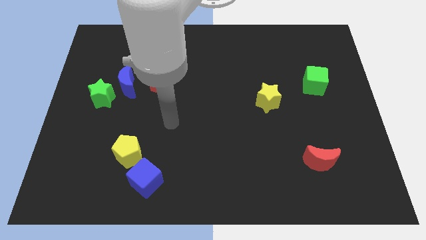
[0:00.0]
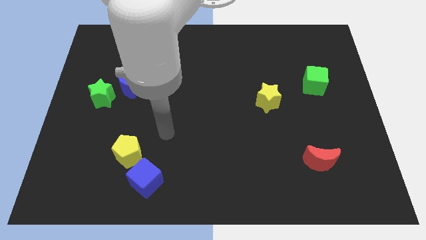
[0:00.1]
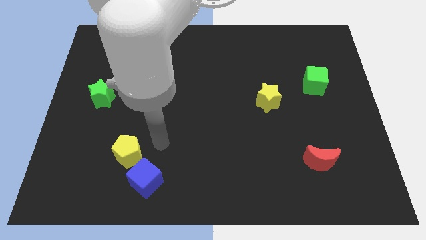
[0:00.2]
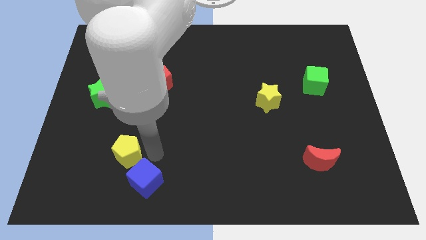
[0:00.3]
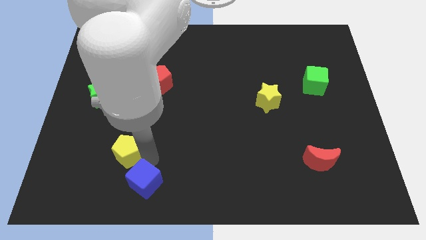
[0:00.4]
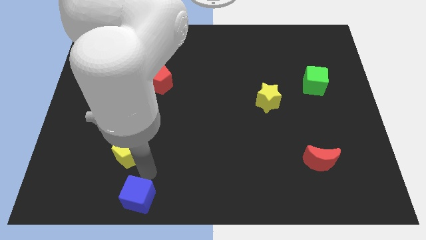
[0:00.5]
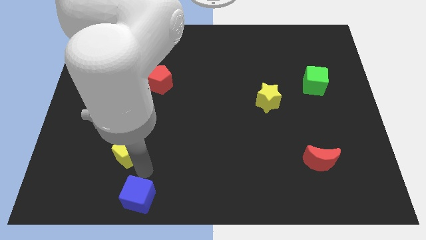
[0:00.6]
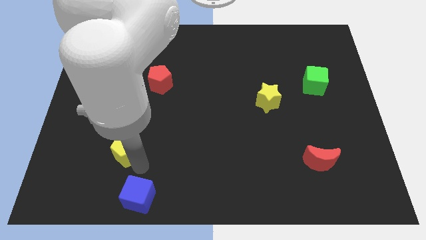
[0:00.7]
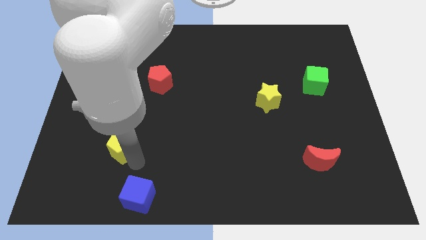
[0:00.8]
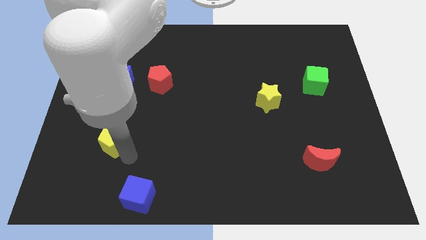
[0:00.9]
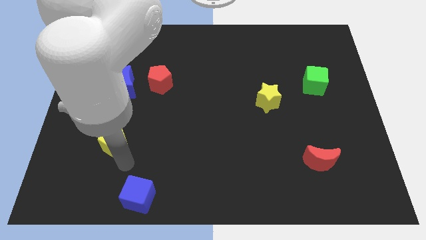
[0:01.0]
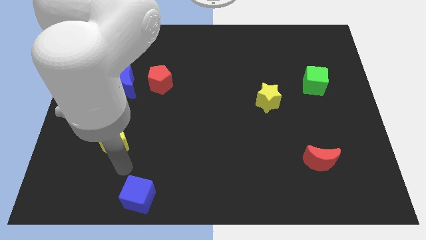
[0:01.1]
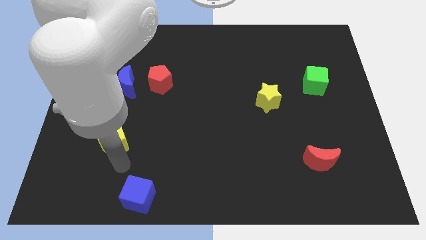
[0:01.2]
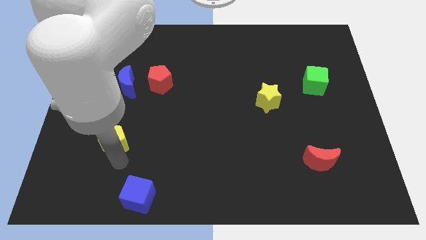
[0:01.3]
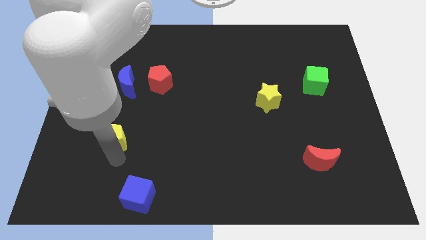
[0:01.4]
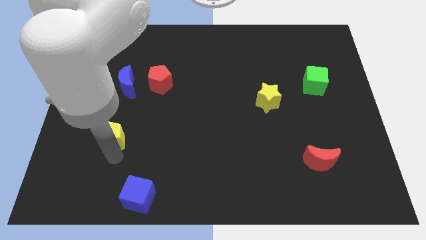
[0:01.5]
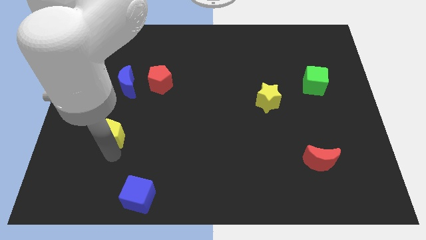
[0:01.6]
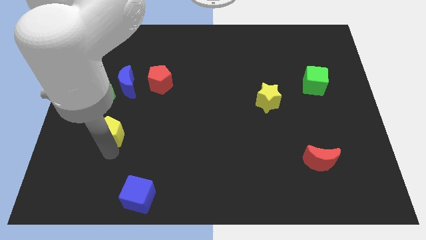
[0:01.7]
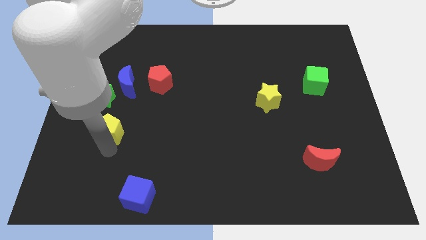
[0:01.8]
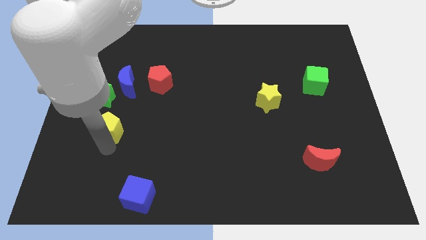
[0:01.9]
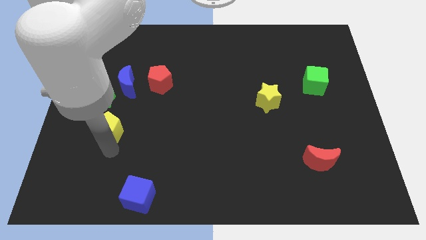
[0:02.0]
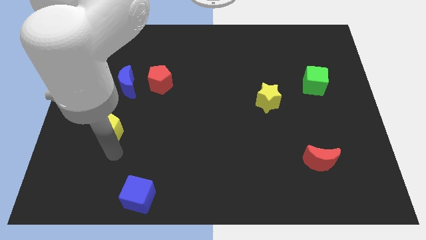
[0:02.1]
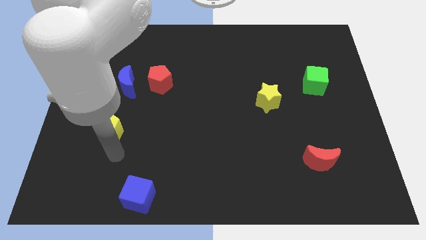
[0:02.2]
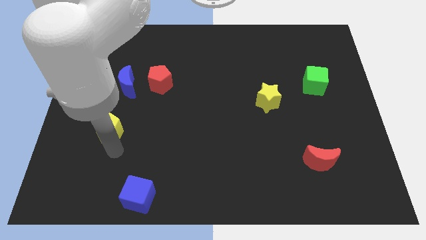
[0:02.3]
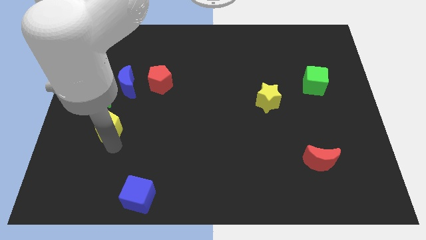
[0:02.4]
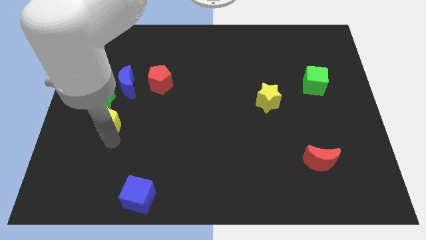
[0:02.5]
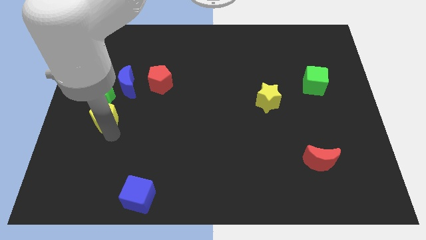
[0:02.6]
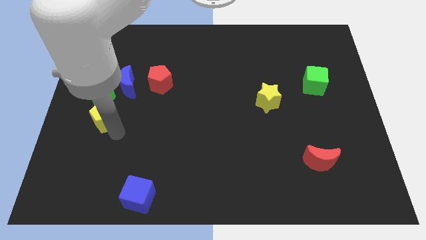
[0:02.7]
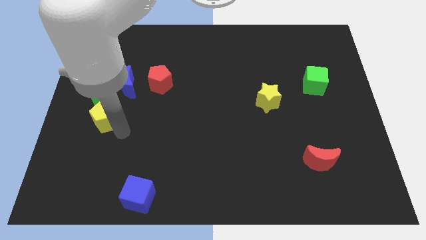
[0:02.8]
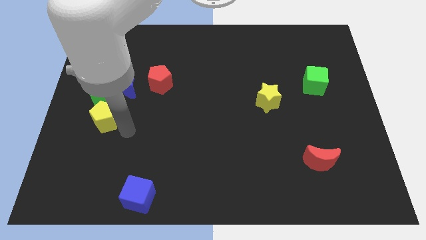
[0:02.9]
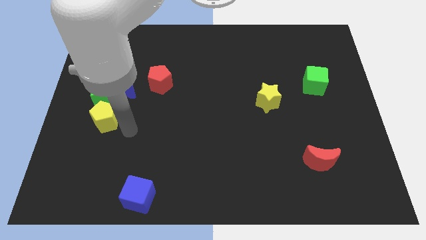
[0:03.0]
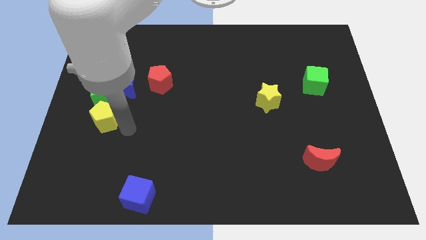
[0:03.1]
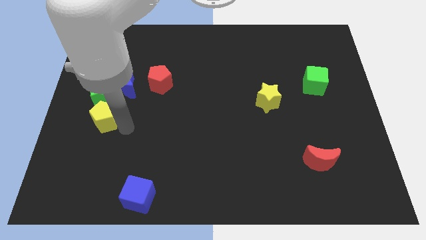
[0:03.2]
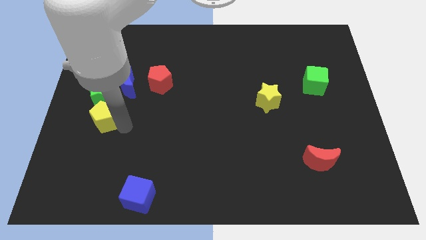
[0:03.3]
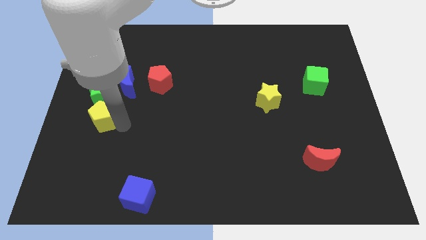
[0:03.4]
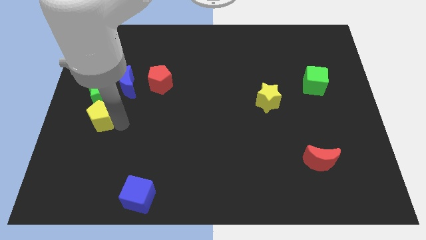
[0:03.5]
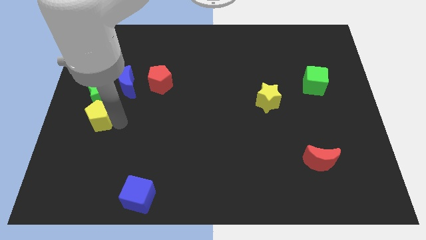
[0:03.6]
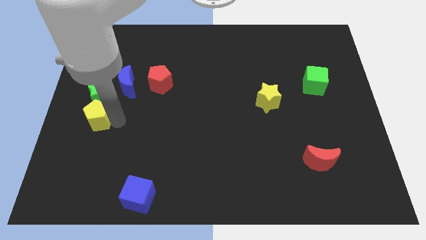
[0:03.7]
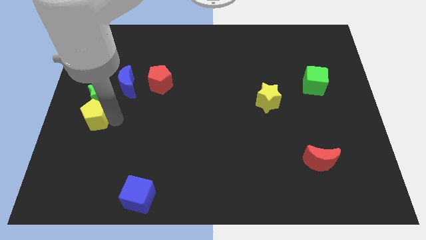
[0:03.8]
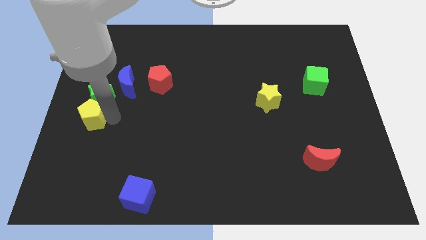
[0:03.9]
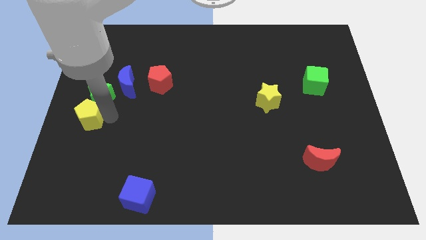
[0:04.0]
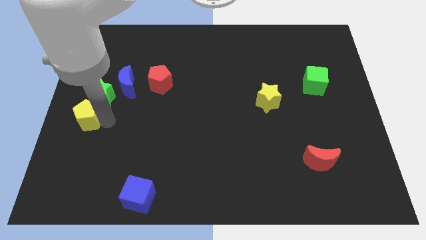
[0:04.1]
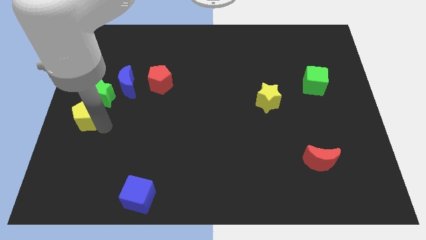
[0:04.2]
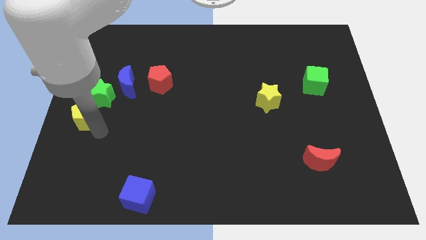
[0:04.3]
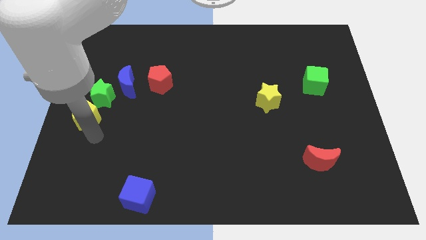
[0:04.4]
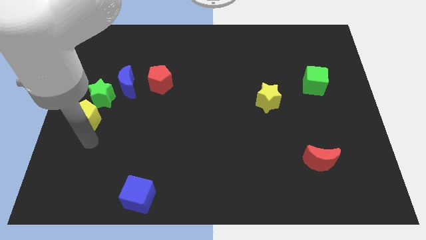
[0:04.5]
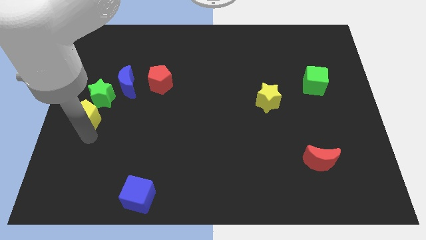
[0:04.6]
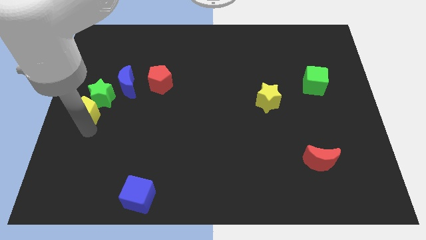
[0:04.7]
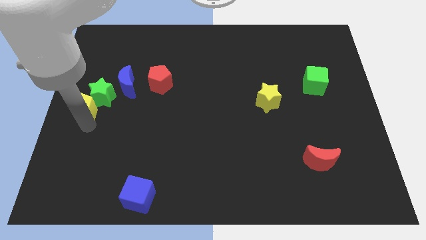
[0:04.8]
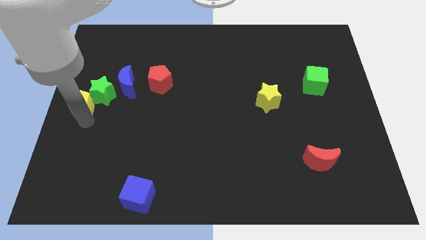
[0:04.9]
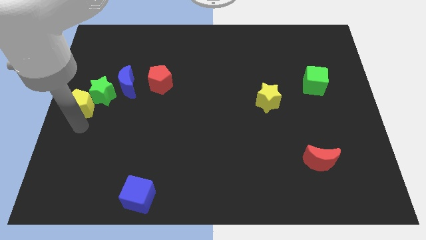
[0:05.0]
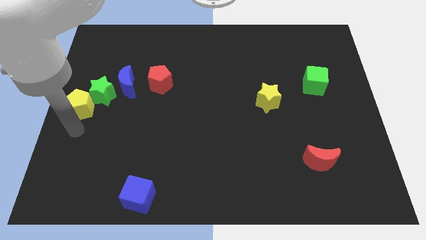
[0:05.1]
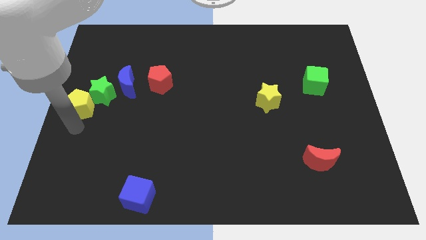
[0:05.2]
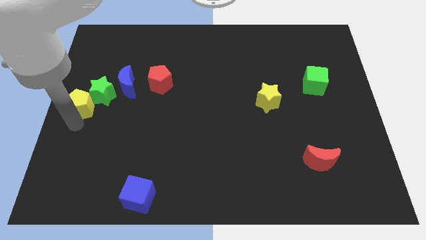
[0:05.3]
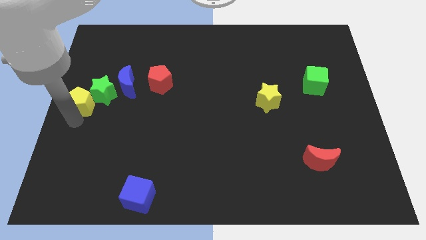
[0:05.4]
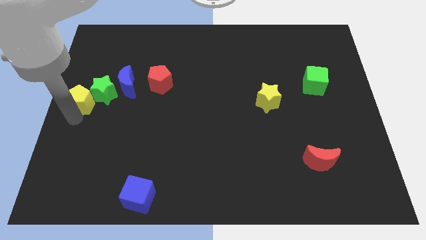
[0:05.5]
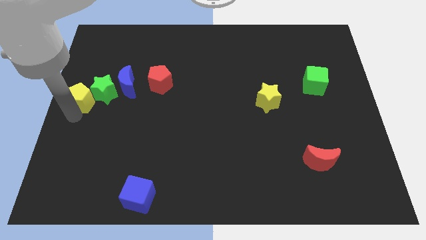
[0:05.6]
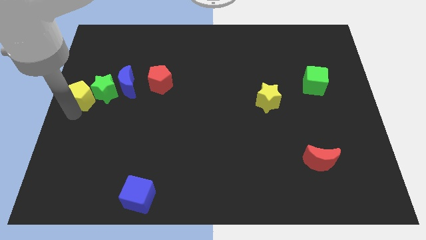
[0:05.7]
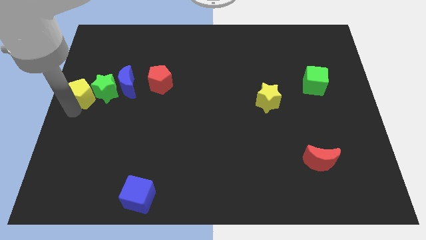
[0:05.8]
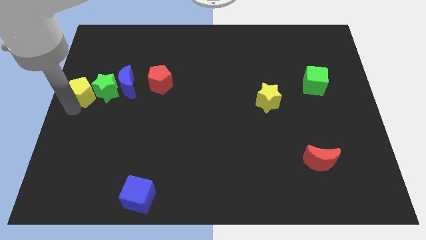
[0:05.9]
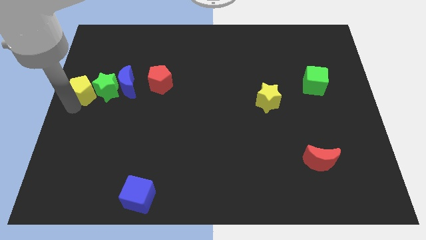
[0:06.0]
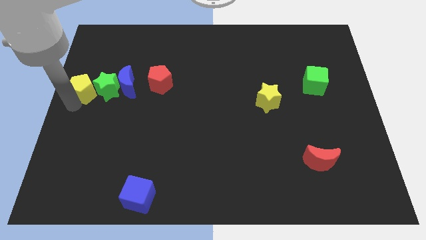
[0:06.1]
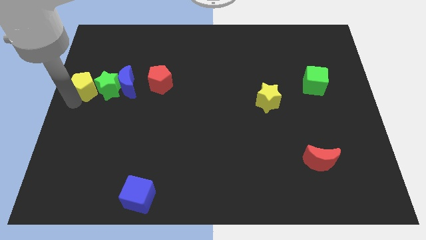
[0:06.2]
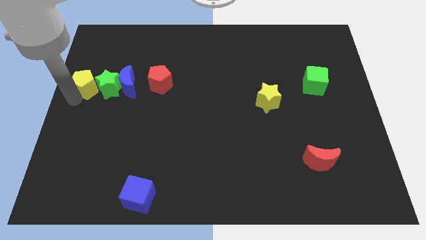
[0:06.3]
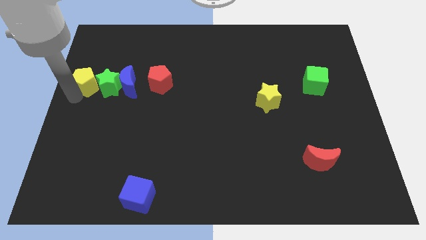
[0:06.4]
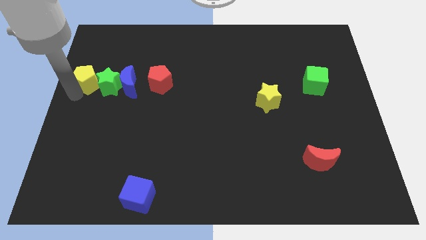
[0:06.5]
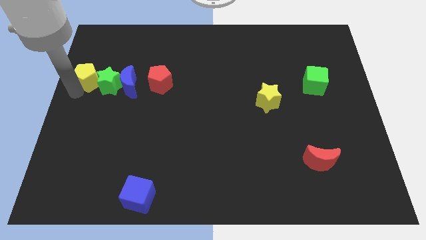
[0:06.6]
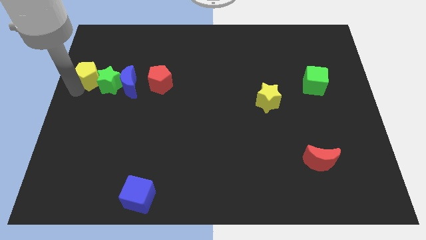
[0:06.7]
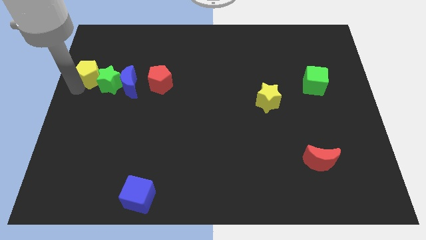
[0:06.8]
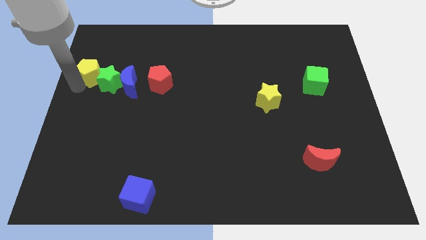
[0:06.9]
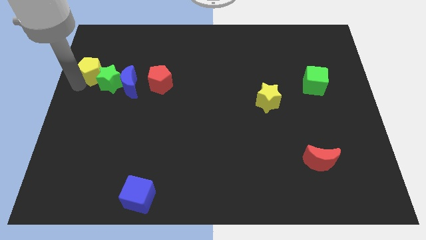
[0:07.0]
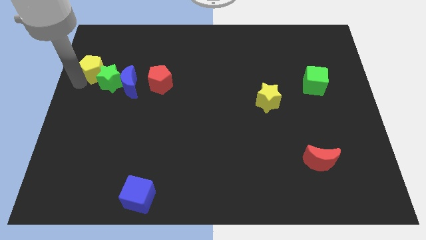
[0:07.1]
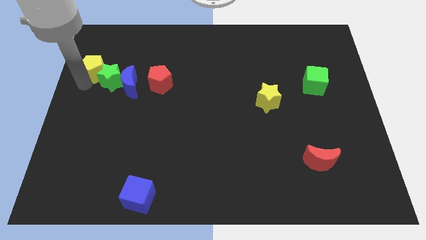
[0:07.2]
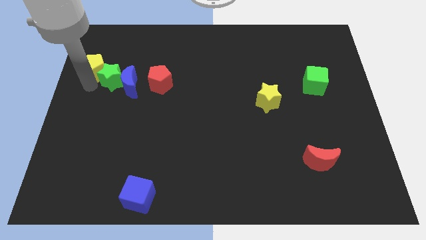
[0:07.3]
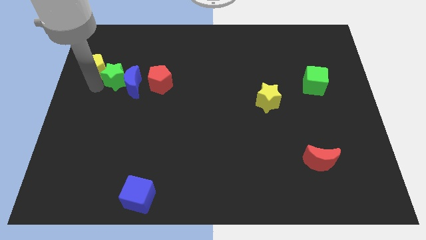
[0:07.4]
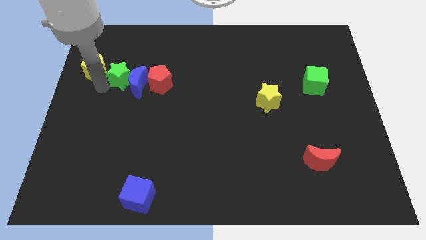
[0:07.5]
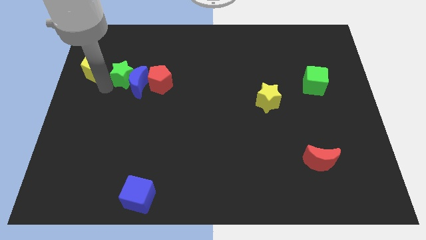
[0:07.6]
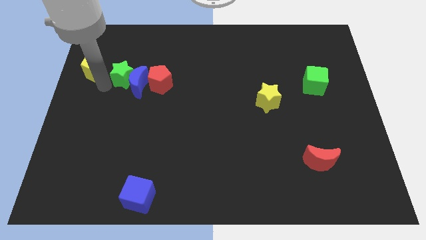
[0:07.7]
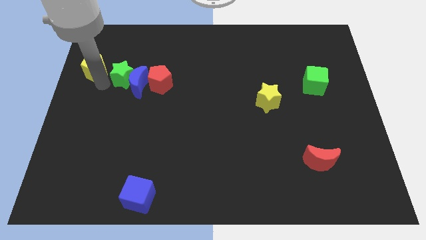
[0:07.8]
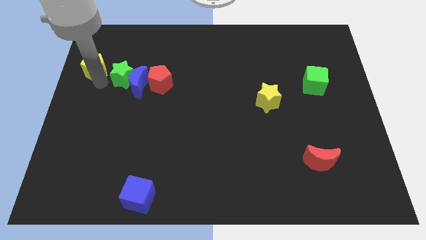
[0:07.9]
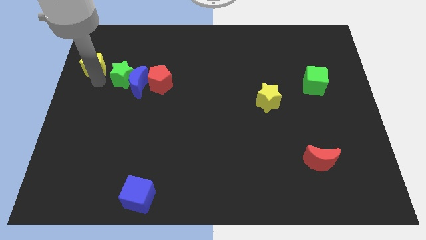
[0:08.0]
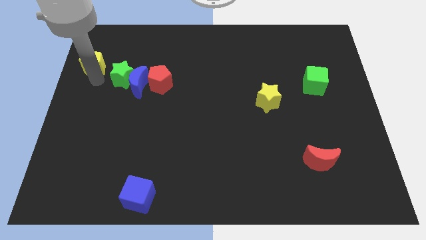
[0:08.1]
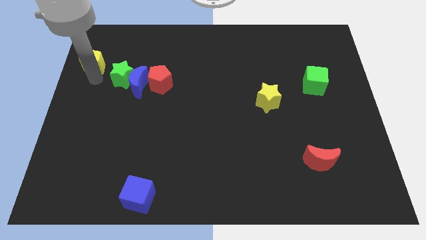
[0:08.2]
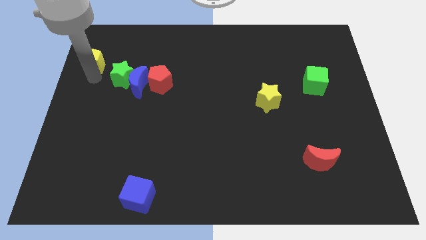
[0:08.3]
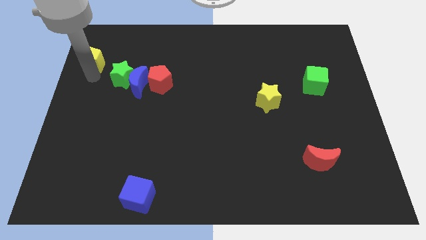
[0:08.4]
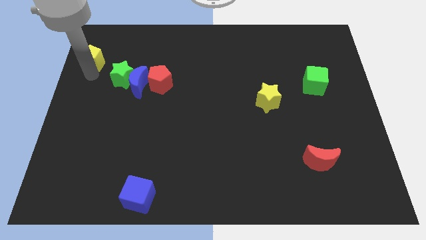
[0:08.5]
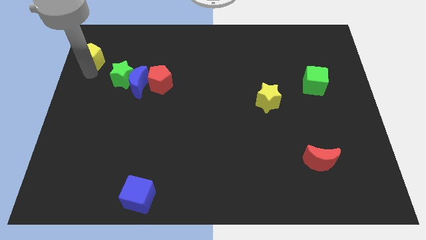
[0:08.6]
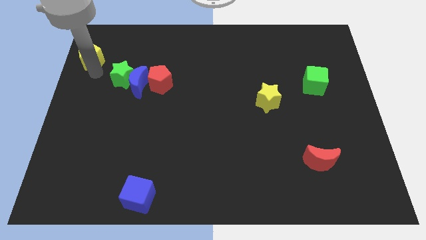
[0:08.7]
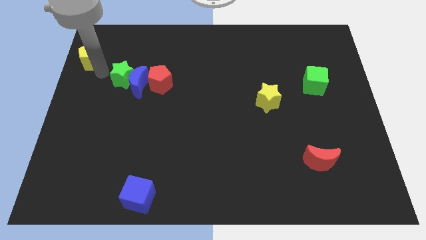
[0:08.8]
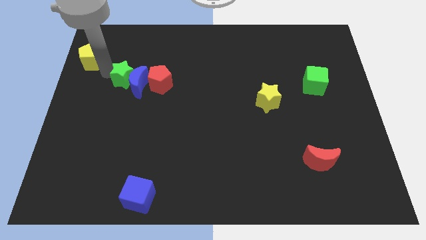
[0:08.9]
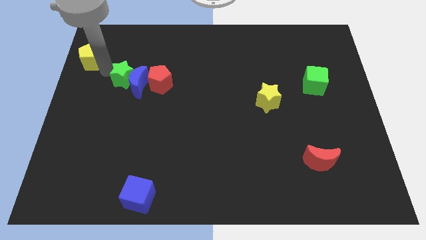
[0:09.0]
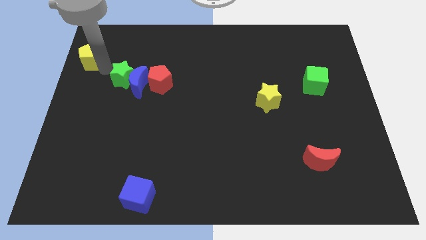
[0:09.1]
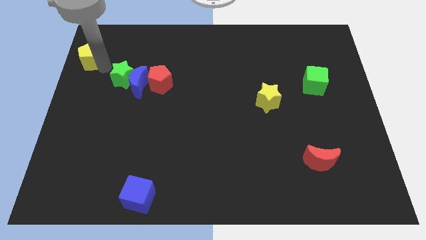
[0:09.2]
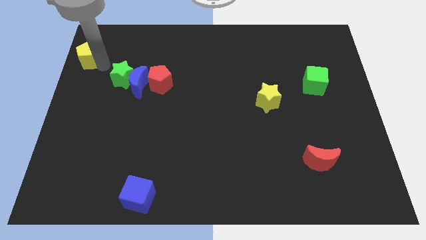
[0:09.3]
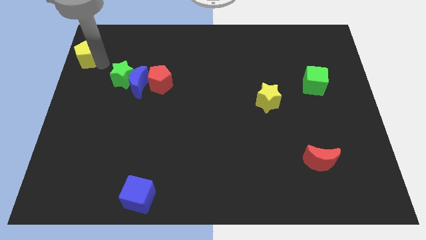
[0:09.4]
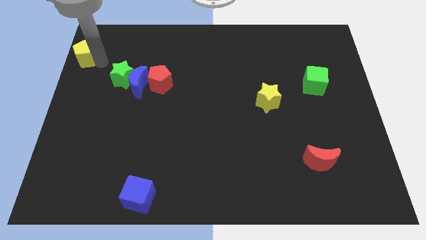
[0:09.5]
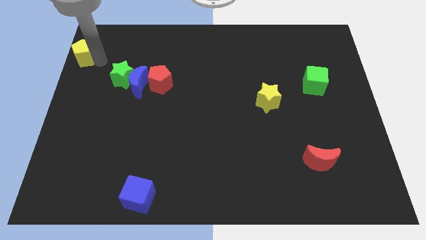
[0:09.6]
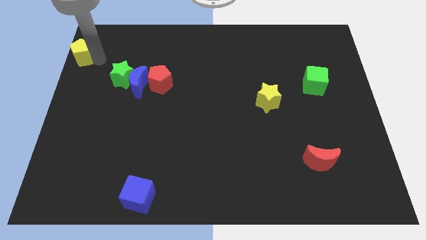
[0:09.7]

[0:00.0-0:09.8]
push the yellow pentagon to the top left of the board
